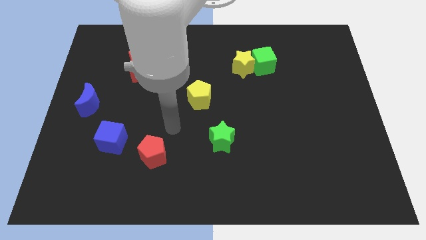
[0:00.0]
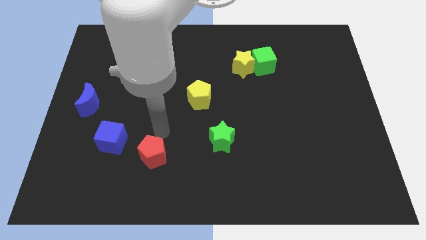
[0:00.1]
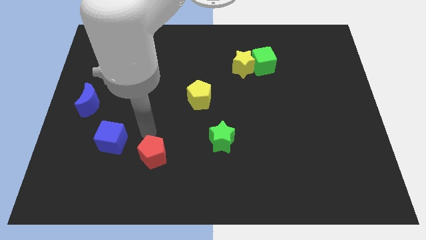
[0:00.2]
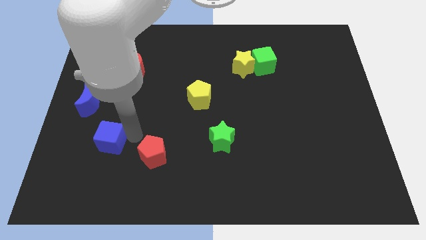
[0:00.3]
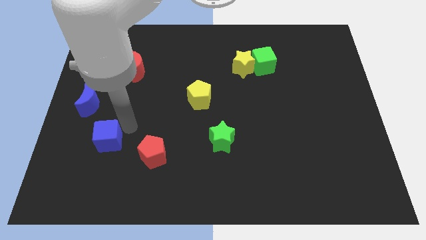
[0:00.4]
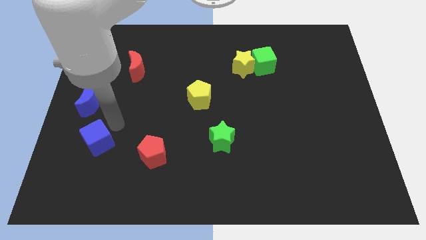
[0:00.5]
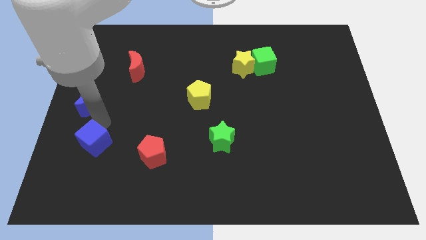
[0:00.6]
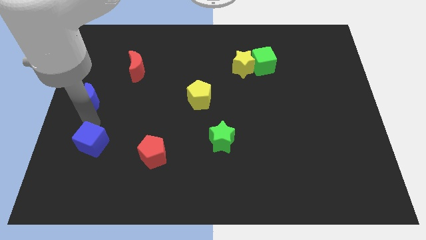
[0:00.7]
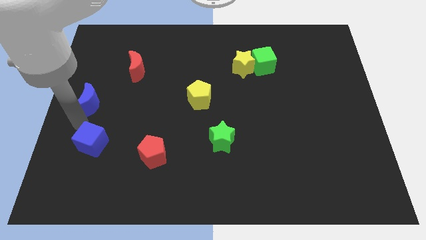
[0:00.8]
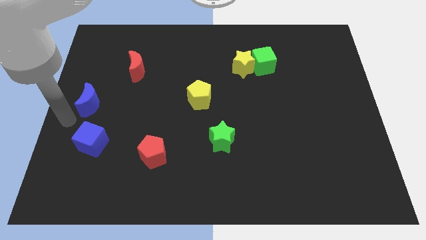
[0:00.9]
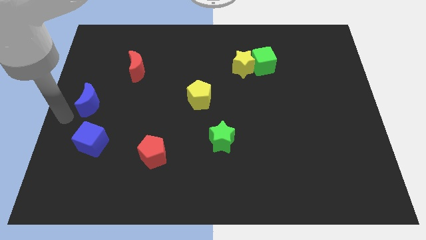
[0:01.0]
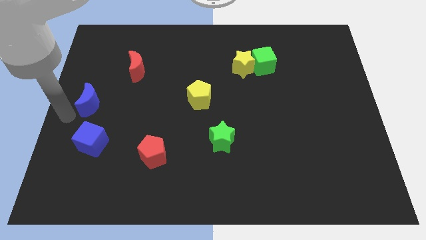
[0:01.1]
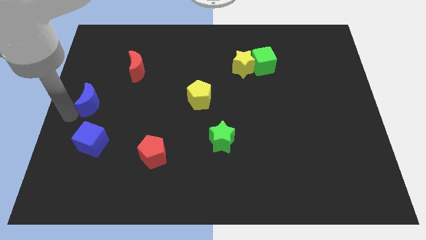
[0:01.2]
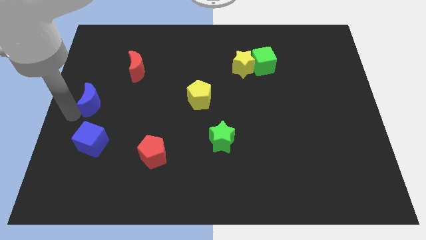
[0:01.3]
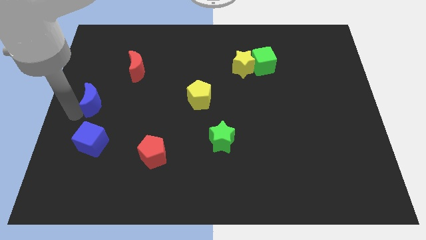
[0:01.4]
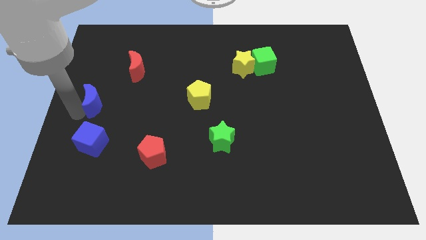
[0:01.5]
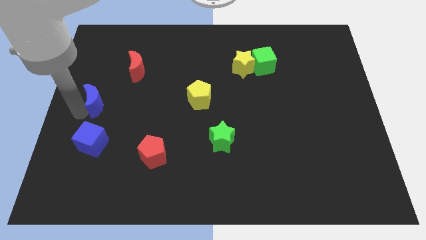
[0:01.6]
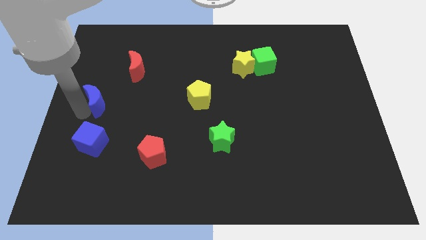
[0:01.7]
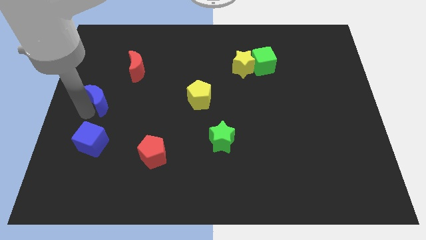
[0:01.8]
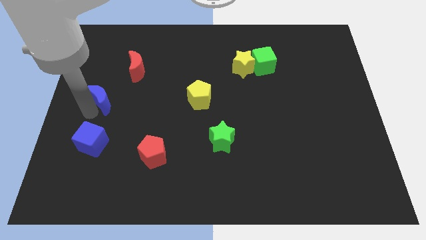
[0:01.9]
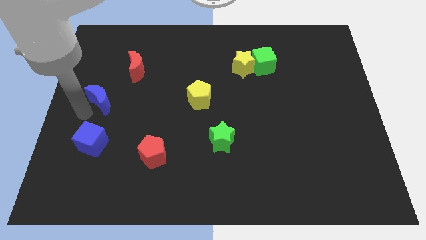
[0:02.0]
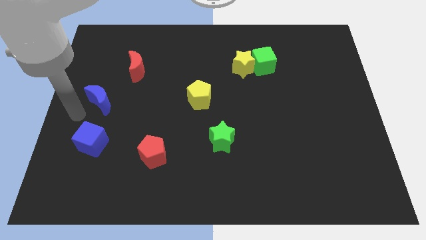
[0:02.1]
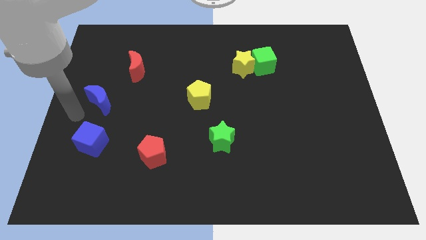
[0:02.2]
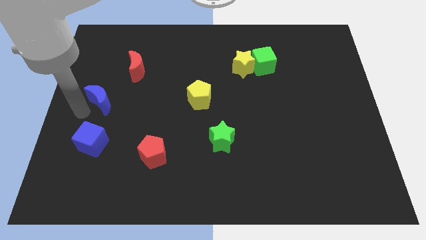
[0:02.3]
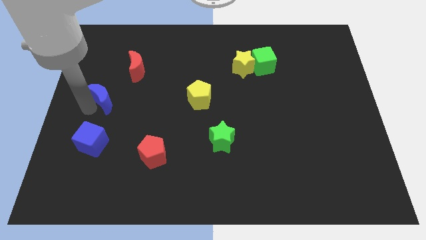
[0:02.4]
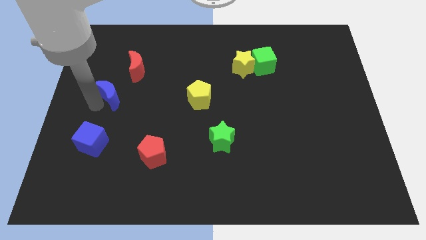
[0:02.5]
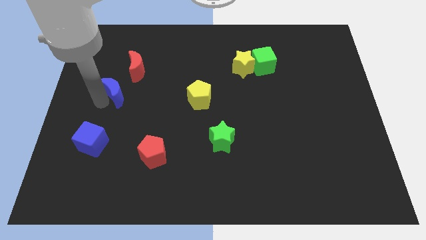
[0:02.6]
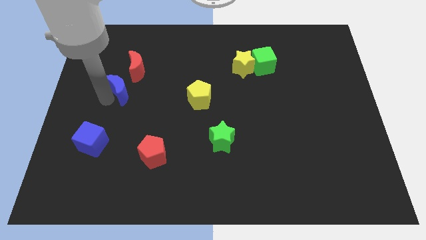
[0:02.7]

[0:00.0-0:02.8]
move the blue moon a little bit up and right diagonally

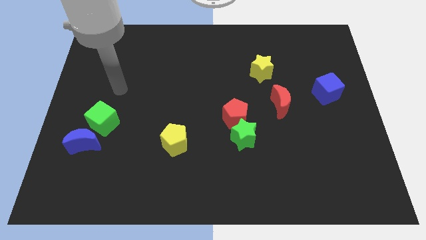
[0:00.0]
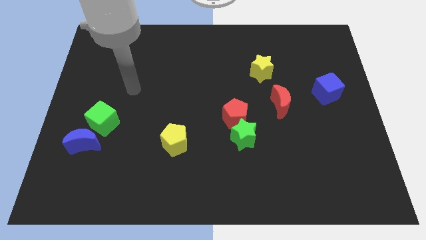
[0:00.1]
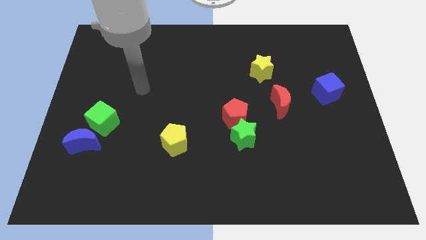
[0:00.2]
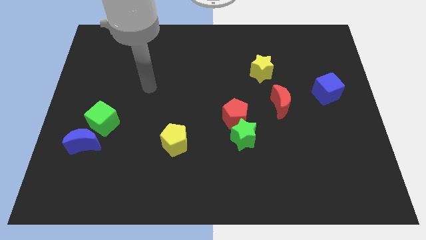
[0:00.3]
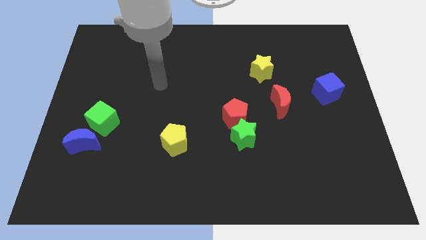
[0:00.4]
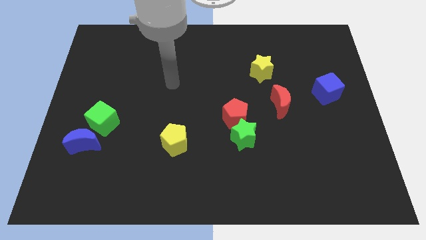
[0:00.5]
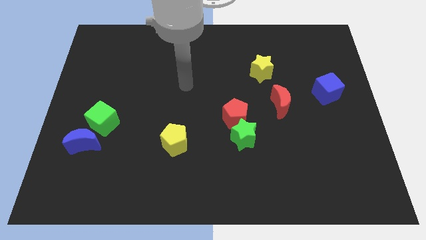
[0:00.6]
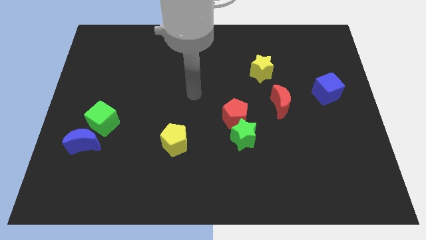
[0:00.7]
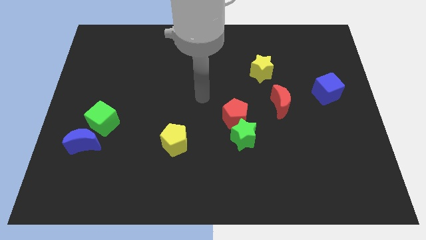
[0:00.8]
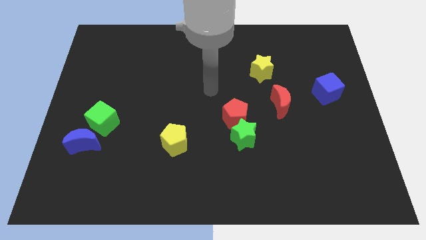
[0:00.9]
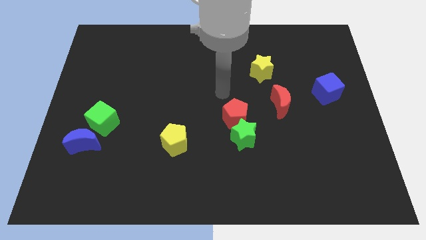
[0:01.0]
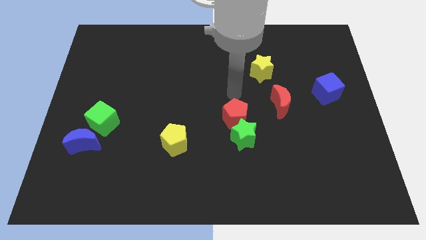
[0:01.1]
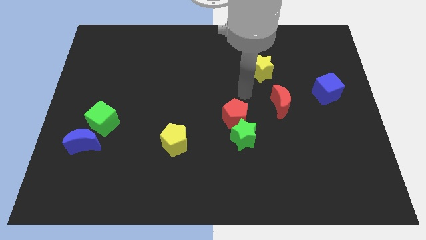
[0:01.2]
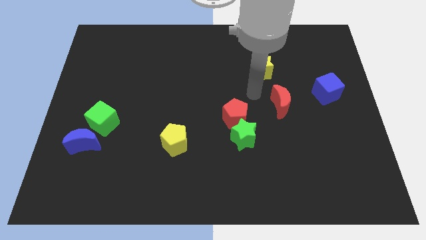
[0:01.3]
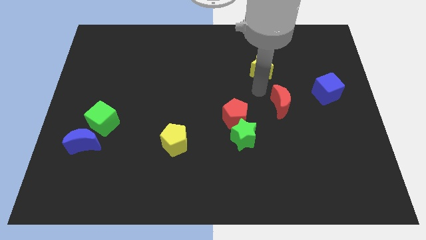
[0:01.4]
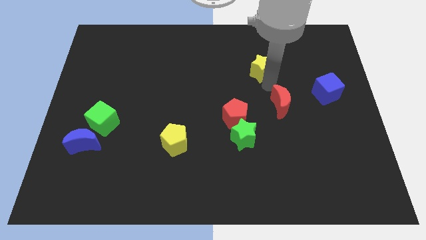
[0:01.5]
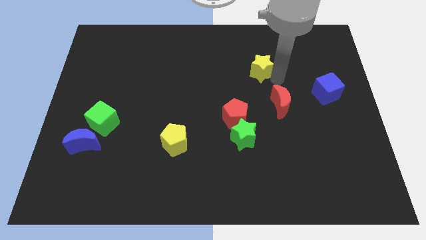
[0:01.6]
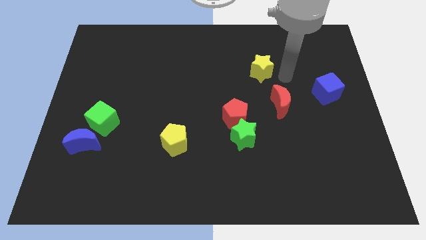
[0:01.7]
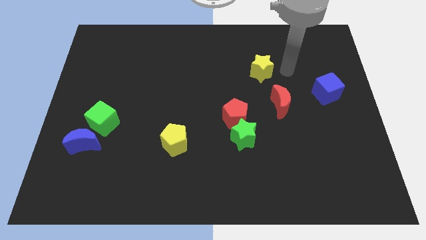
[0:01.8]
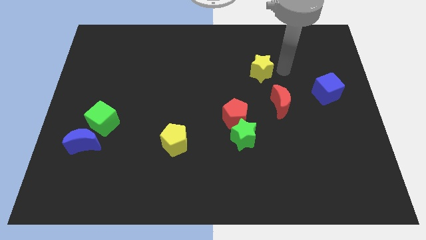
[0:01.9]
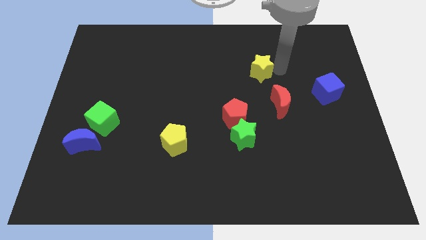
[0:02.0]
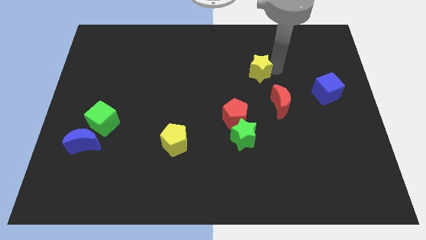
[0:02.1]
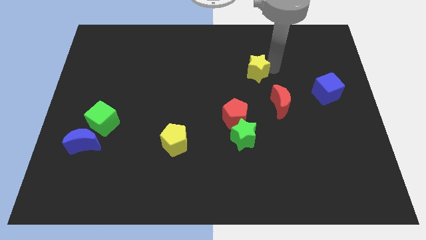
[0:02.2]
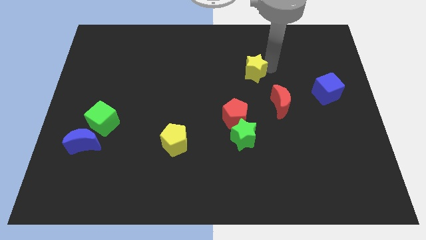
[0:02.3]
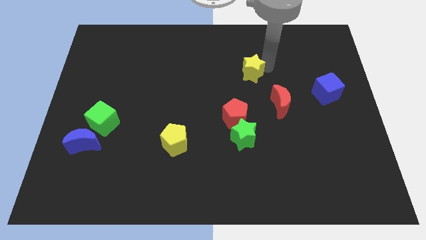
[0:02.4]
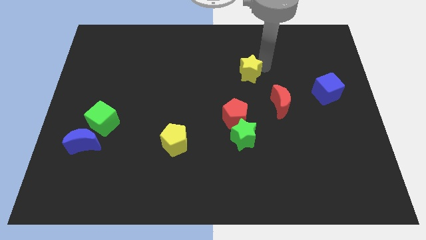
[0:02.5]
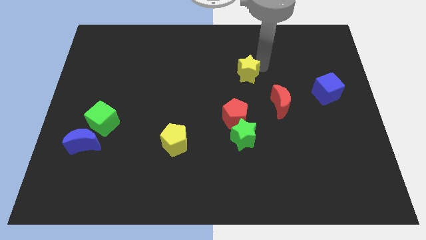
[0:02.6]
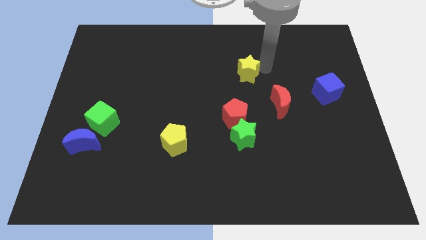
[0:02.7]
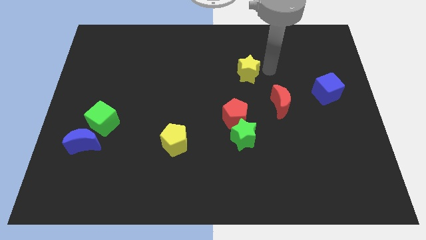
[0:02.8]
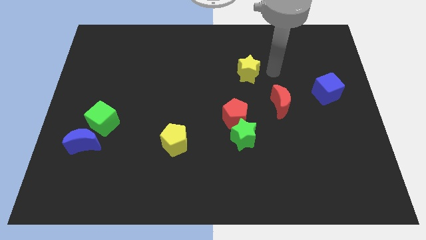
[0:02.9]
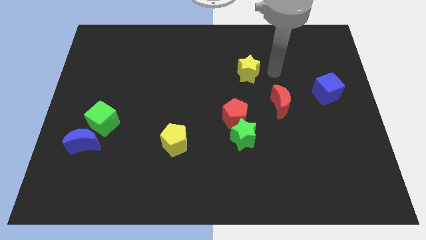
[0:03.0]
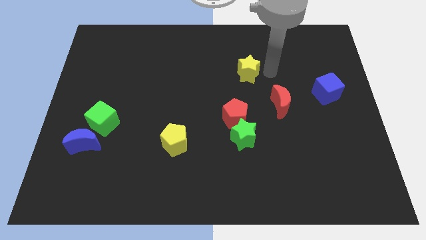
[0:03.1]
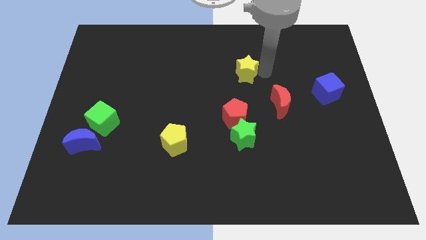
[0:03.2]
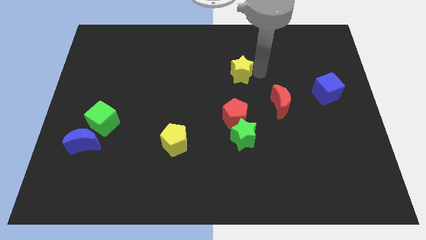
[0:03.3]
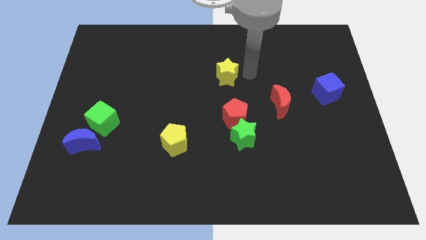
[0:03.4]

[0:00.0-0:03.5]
slide the yellow star left a little bit

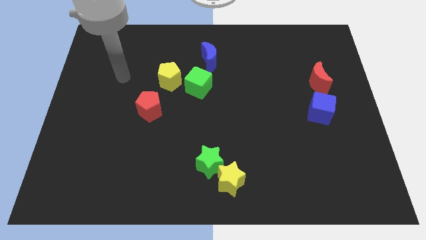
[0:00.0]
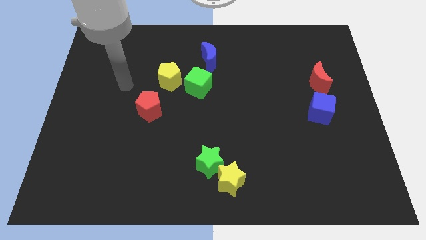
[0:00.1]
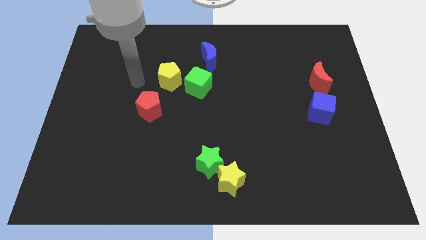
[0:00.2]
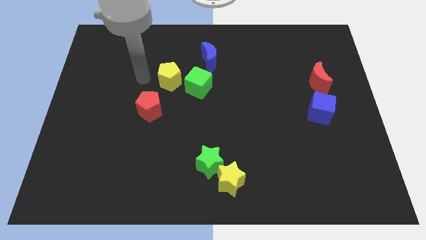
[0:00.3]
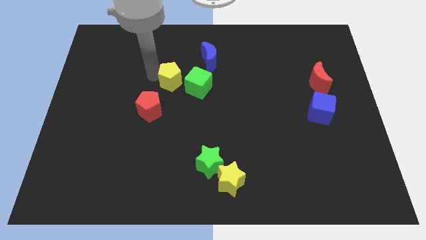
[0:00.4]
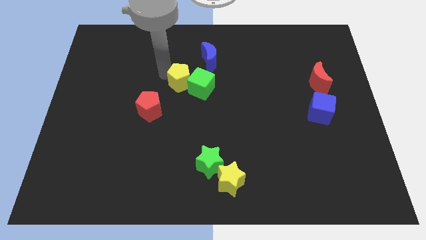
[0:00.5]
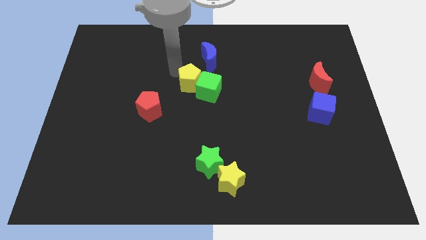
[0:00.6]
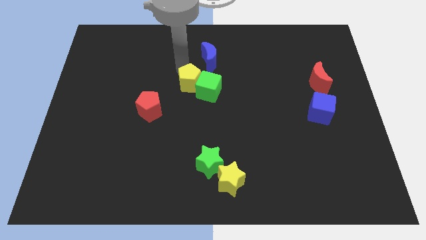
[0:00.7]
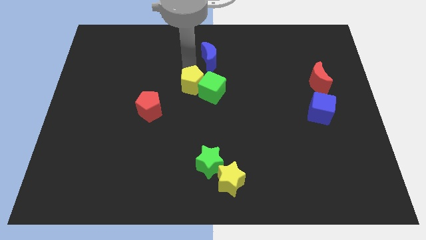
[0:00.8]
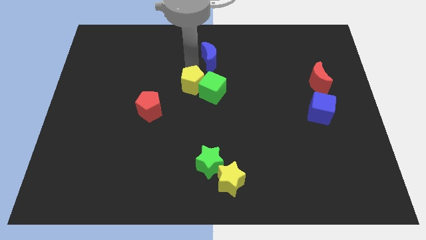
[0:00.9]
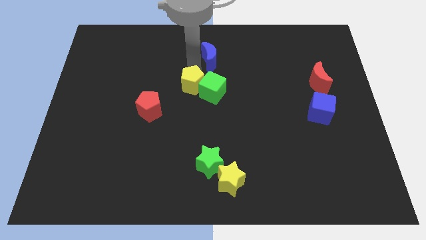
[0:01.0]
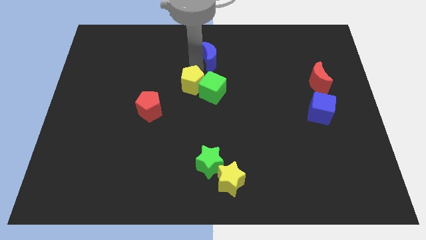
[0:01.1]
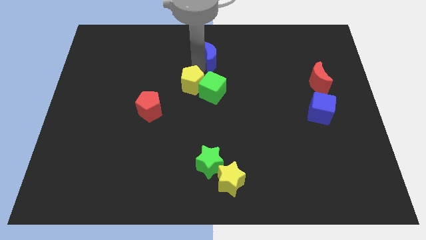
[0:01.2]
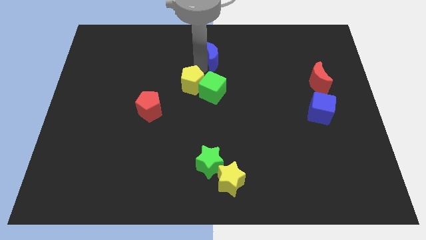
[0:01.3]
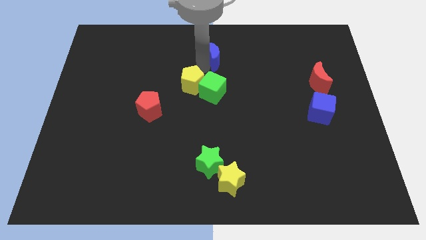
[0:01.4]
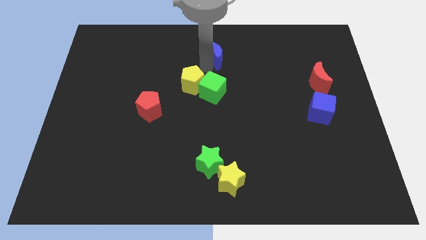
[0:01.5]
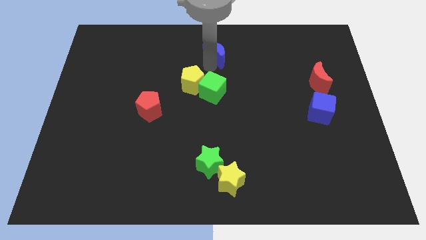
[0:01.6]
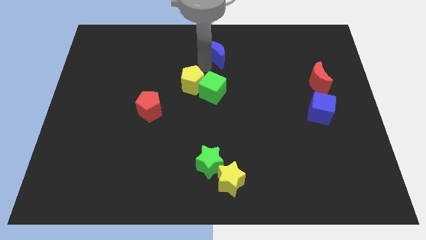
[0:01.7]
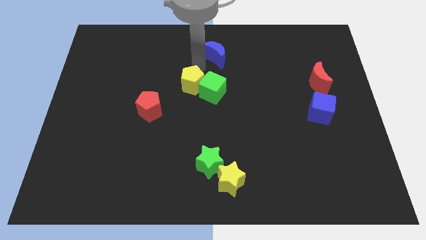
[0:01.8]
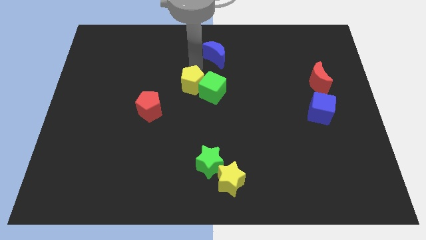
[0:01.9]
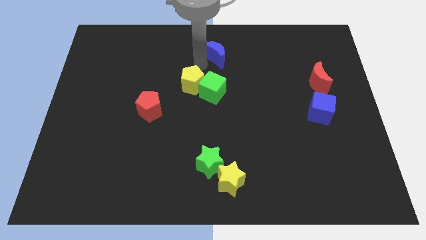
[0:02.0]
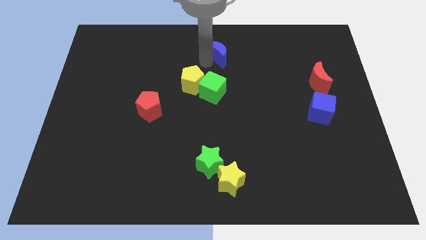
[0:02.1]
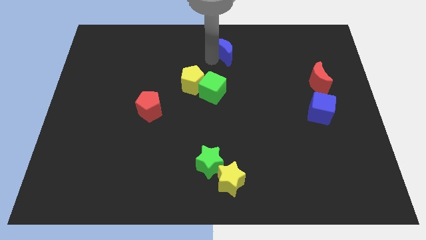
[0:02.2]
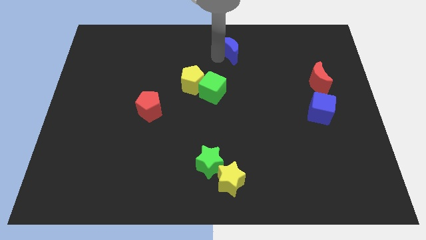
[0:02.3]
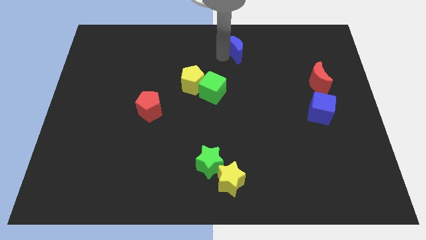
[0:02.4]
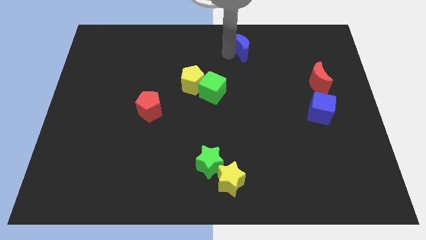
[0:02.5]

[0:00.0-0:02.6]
push the blue moon somewhat right
